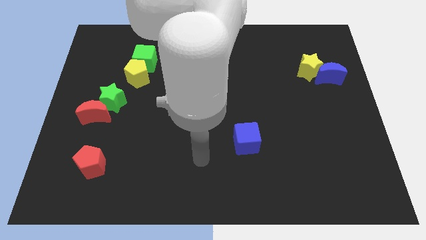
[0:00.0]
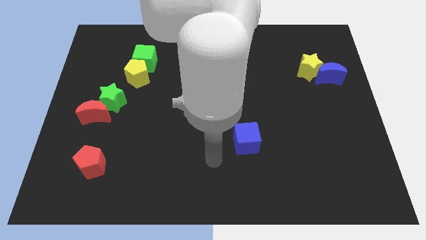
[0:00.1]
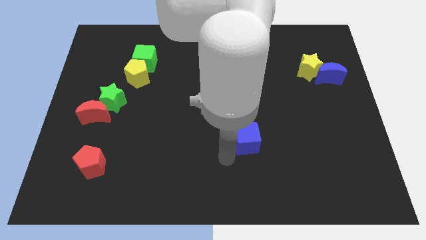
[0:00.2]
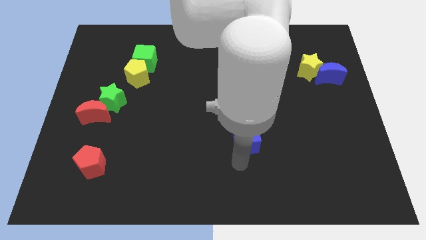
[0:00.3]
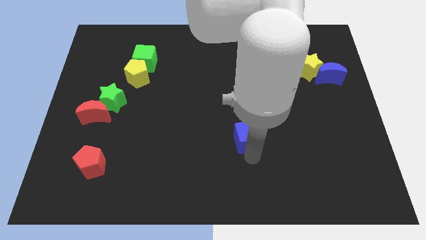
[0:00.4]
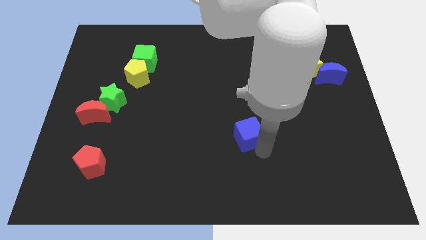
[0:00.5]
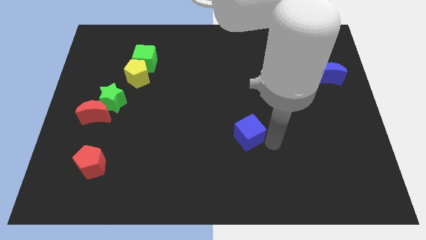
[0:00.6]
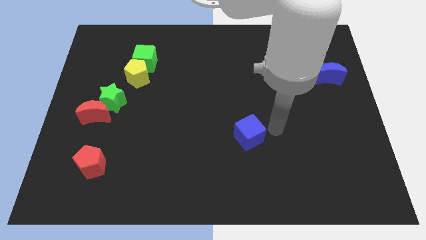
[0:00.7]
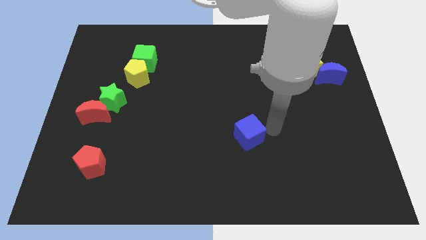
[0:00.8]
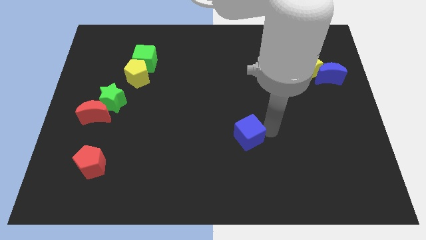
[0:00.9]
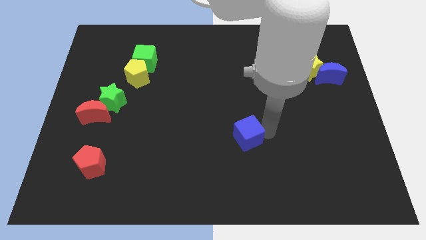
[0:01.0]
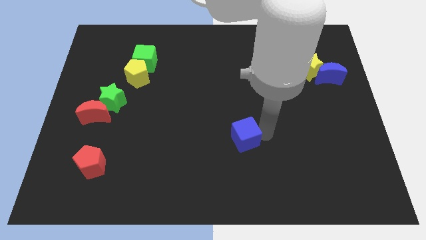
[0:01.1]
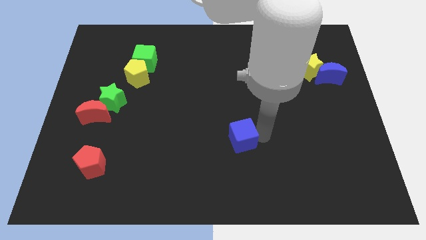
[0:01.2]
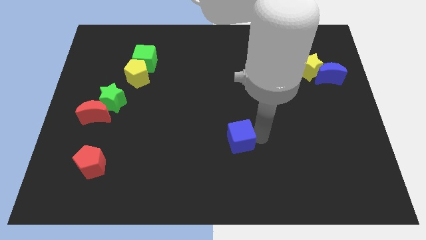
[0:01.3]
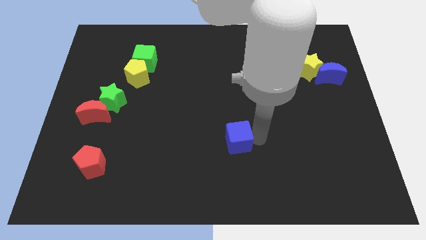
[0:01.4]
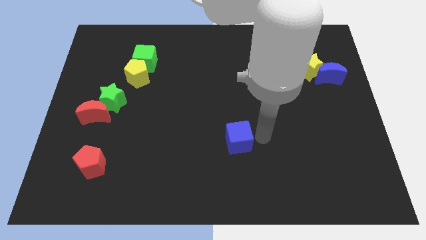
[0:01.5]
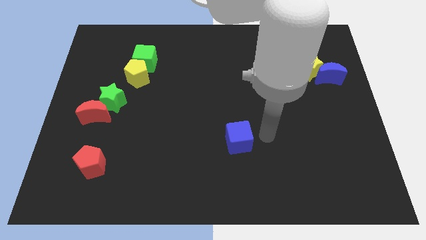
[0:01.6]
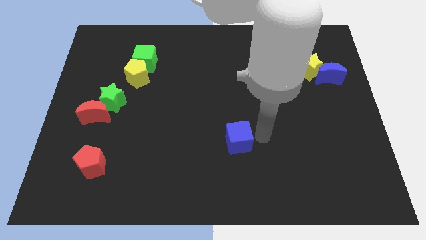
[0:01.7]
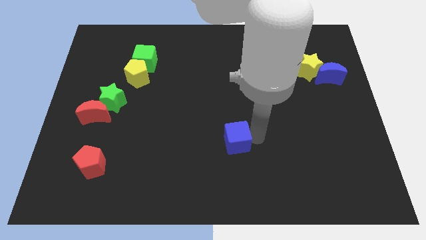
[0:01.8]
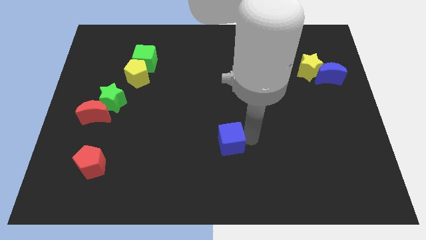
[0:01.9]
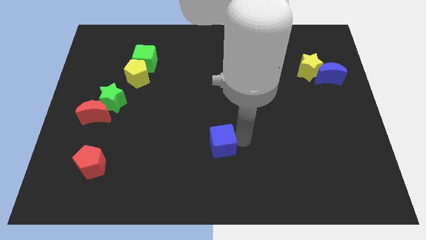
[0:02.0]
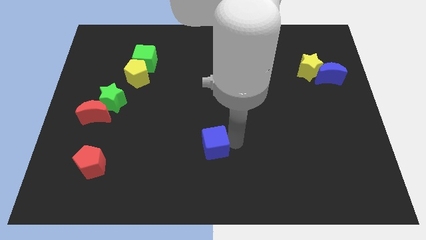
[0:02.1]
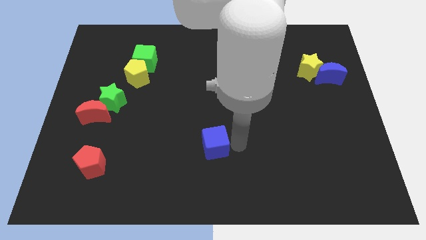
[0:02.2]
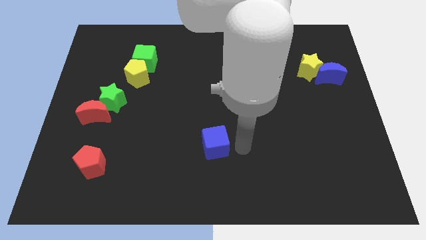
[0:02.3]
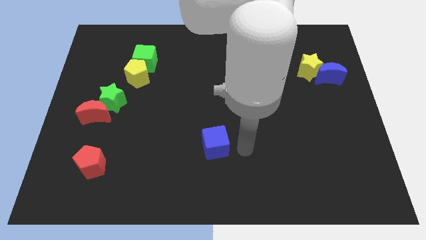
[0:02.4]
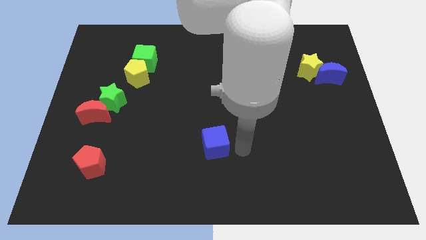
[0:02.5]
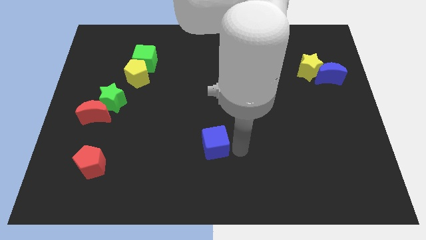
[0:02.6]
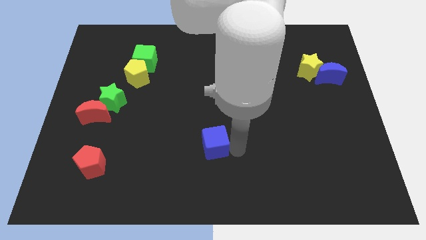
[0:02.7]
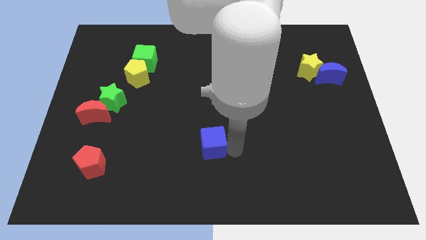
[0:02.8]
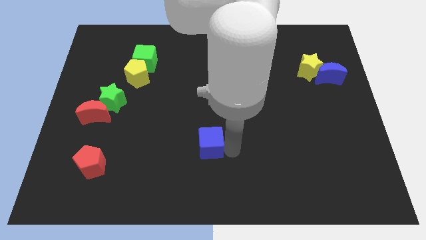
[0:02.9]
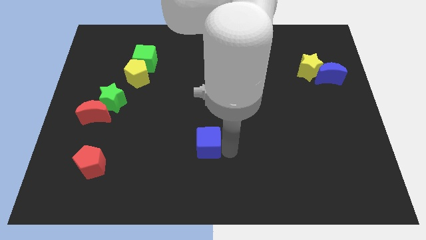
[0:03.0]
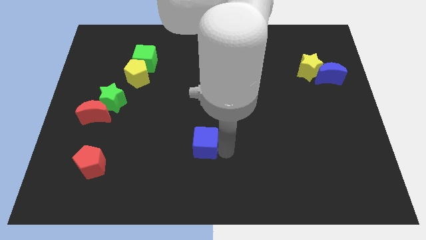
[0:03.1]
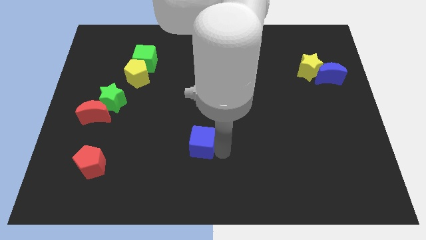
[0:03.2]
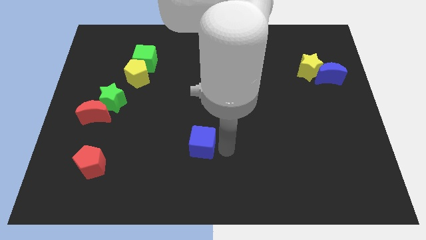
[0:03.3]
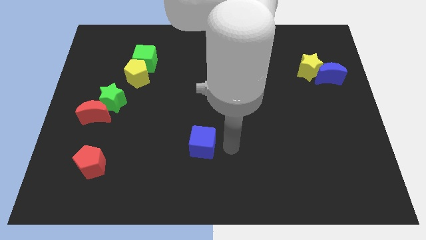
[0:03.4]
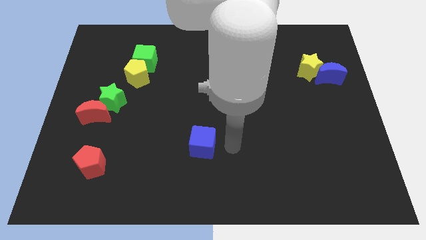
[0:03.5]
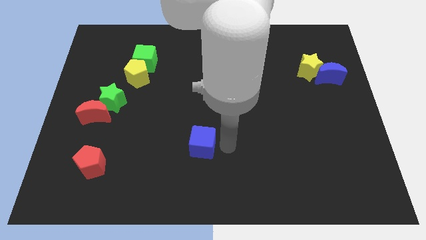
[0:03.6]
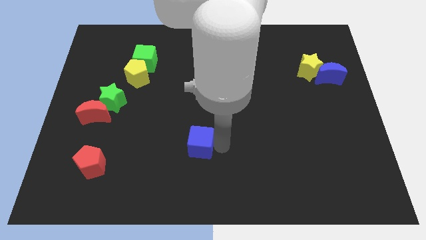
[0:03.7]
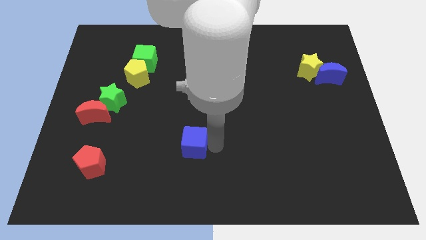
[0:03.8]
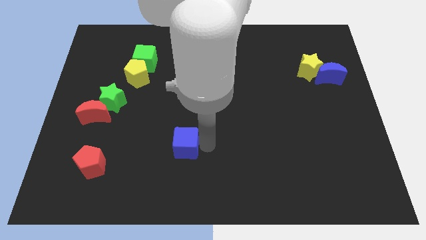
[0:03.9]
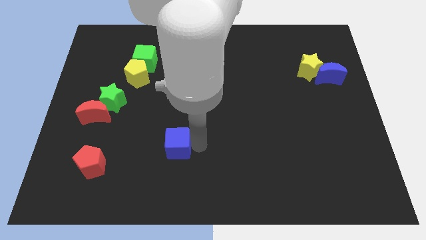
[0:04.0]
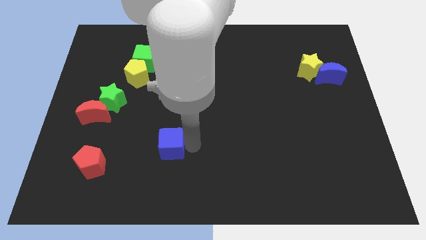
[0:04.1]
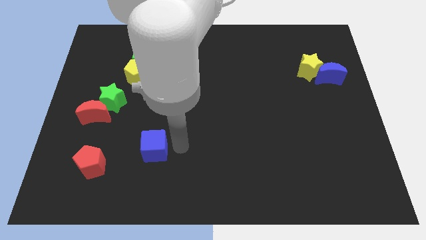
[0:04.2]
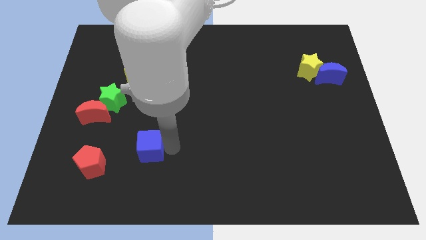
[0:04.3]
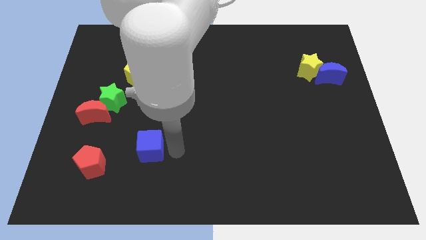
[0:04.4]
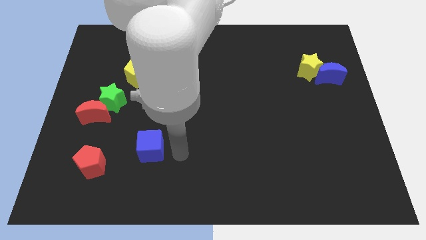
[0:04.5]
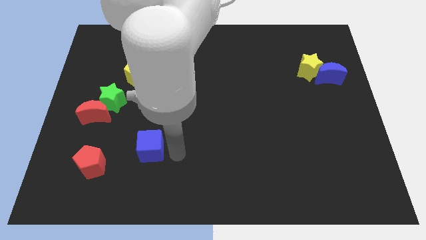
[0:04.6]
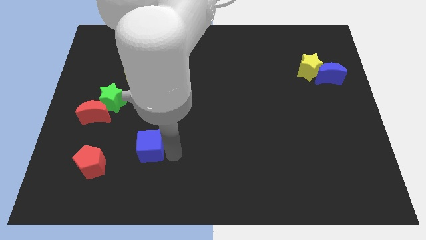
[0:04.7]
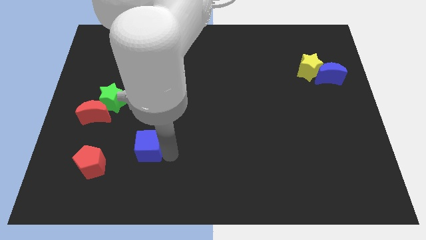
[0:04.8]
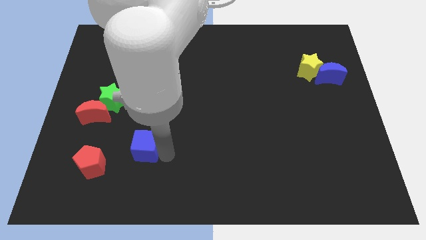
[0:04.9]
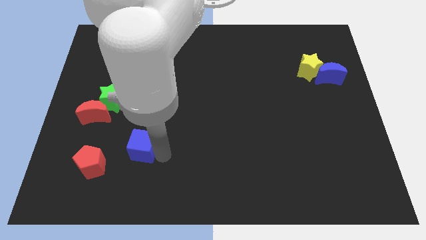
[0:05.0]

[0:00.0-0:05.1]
move the blue cube to the top right side of the red pentagon

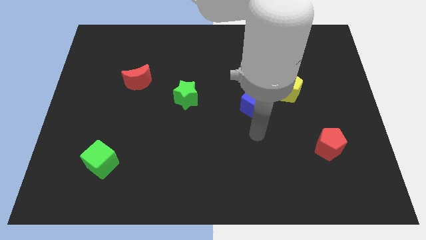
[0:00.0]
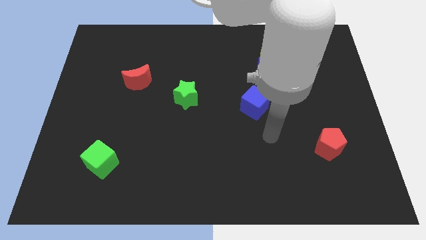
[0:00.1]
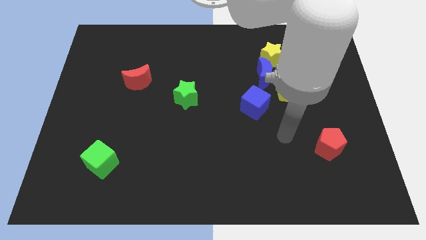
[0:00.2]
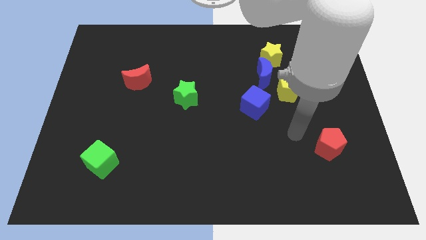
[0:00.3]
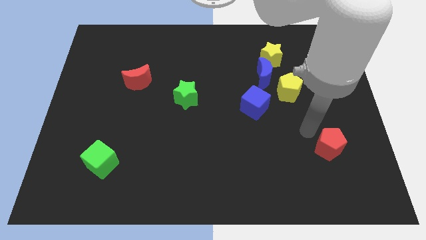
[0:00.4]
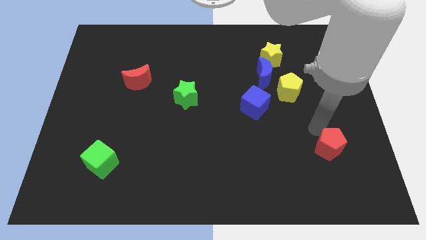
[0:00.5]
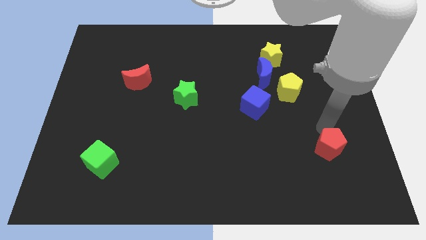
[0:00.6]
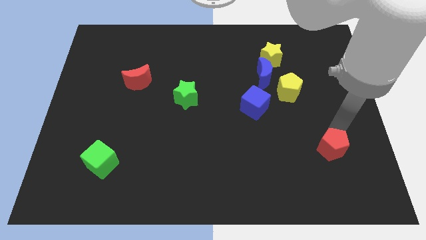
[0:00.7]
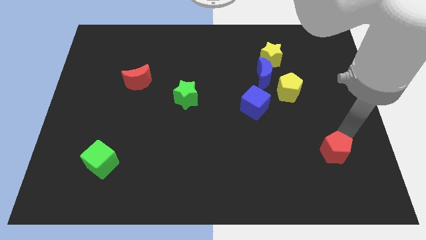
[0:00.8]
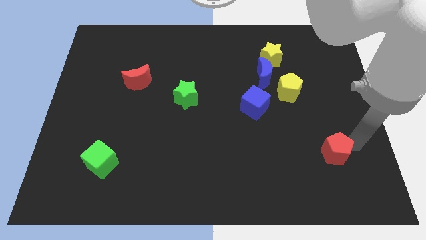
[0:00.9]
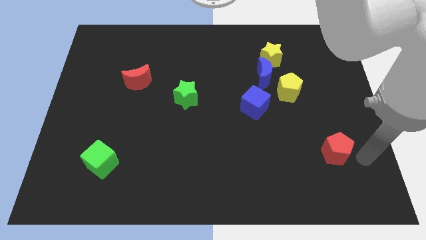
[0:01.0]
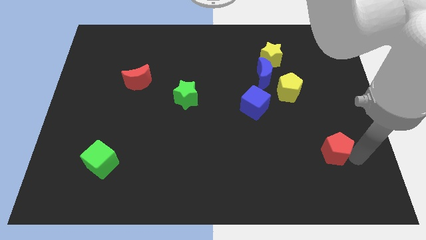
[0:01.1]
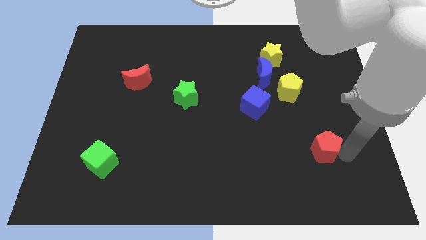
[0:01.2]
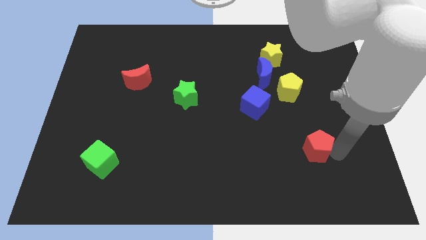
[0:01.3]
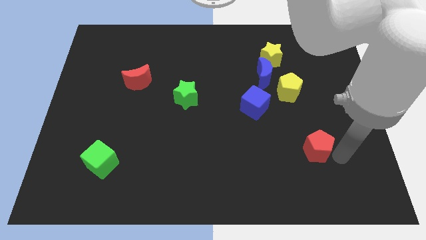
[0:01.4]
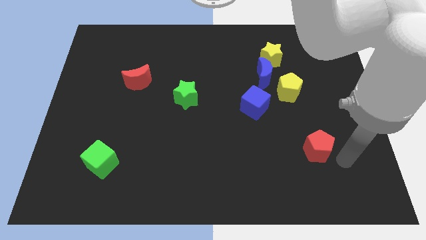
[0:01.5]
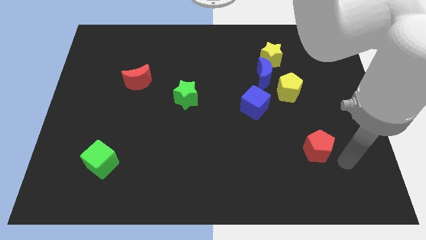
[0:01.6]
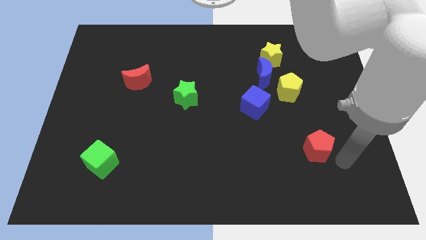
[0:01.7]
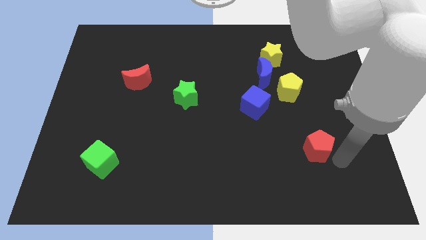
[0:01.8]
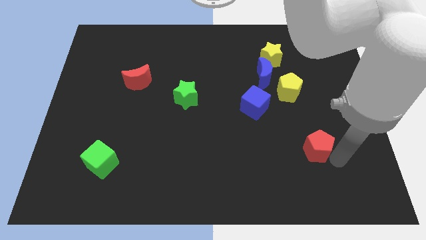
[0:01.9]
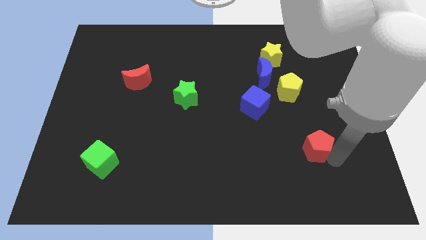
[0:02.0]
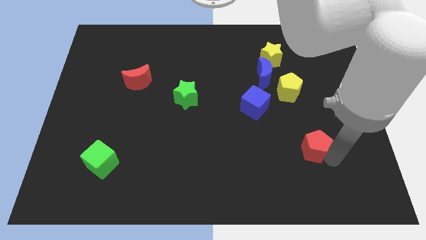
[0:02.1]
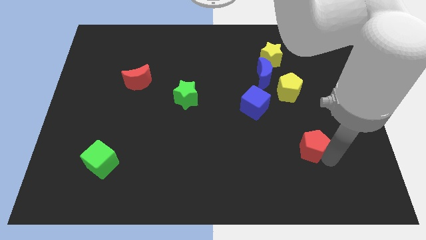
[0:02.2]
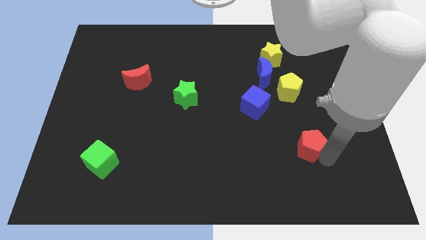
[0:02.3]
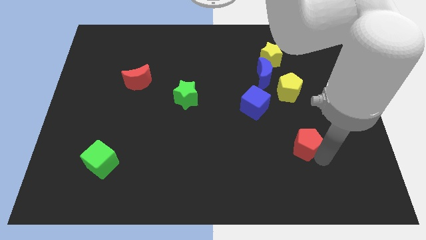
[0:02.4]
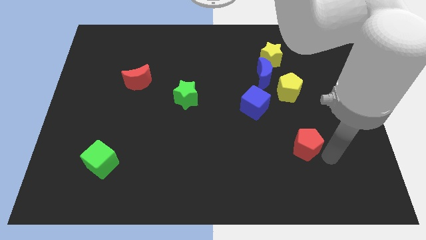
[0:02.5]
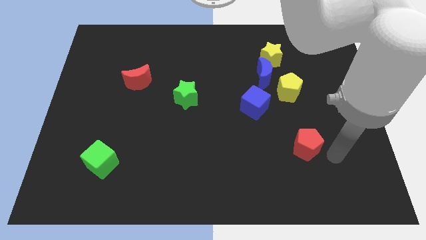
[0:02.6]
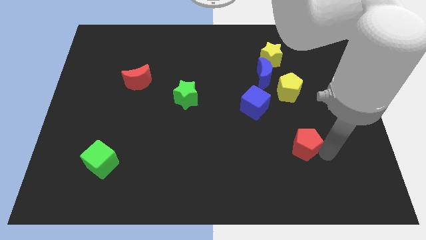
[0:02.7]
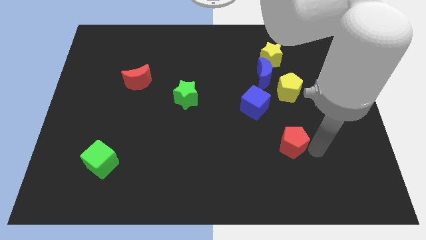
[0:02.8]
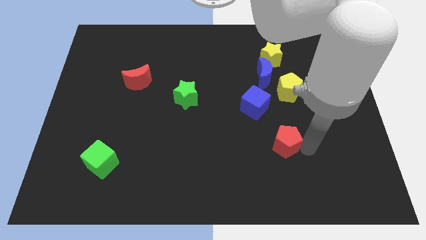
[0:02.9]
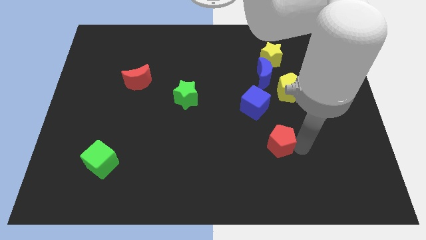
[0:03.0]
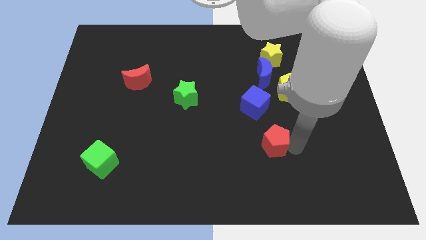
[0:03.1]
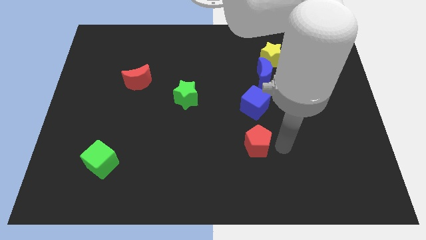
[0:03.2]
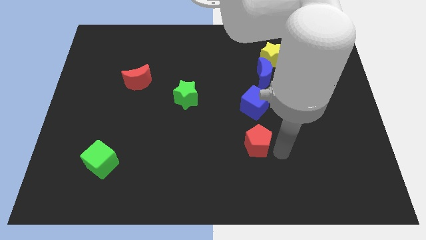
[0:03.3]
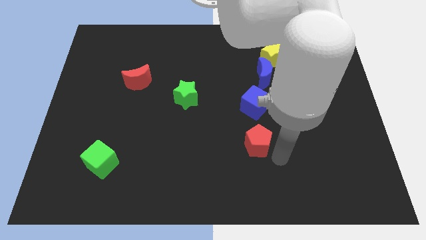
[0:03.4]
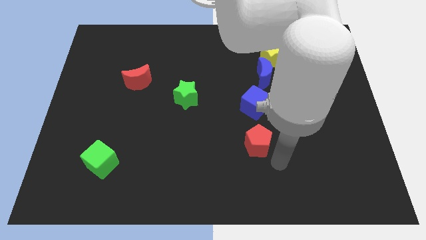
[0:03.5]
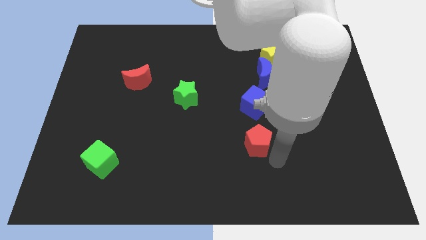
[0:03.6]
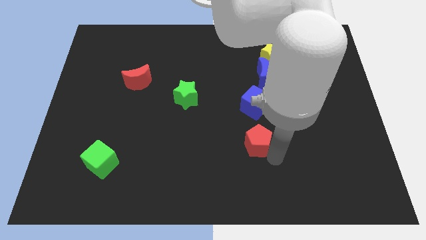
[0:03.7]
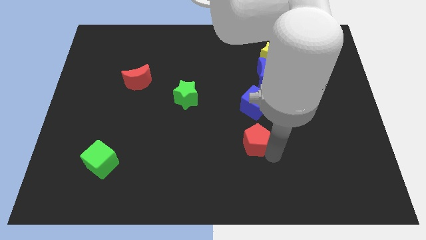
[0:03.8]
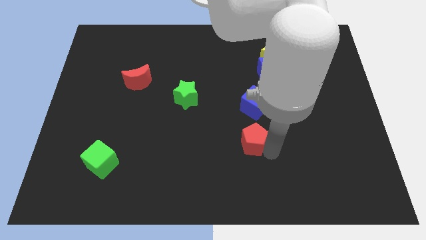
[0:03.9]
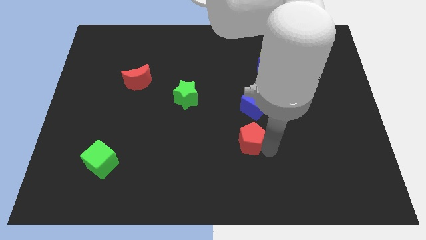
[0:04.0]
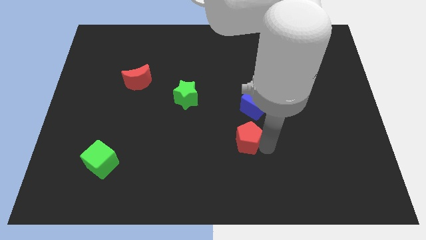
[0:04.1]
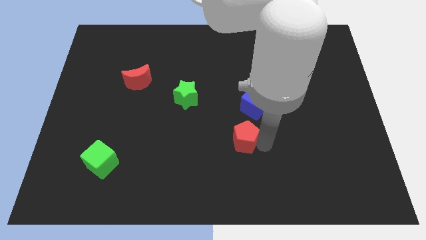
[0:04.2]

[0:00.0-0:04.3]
slide the red pentagon diagonally down and to the left of the blue cube
